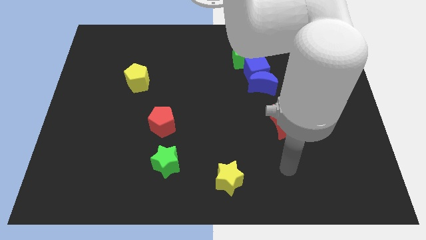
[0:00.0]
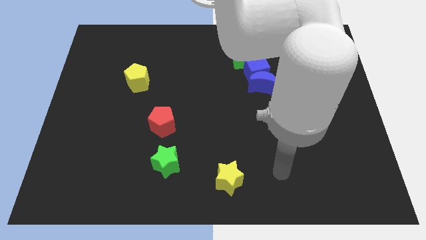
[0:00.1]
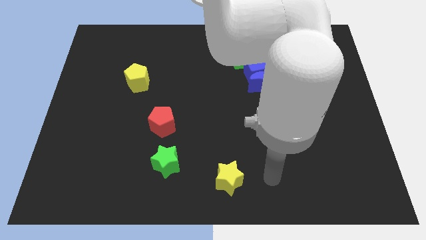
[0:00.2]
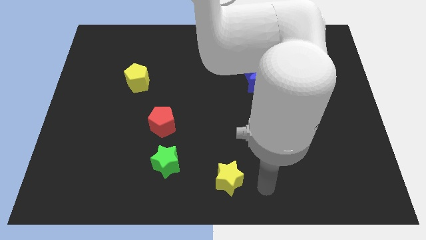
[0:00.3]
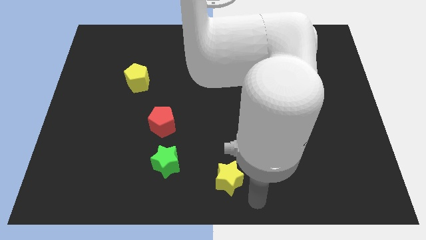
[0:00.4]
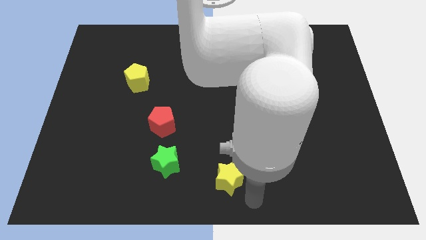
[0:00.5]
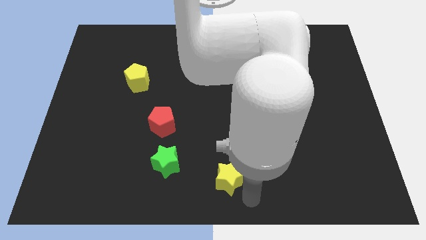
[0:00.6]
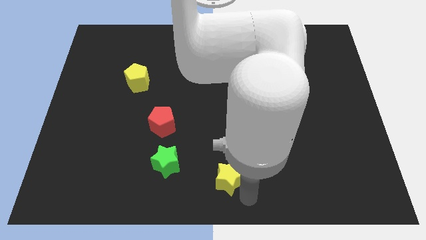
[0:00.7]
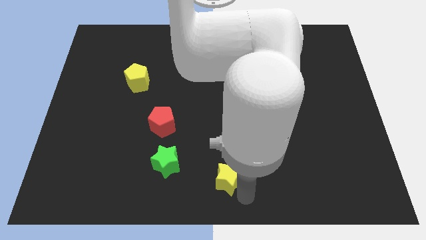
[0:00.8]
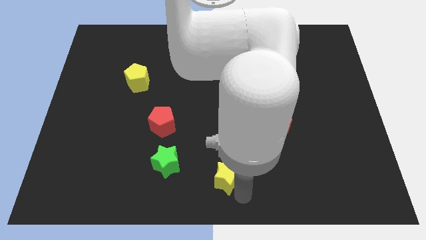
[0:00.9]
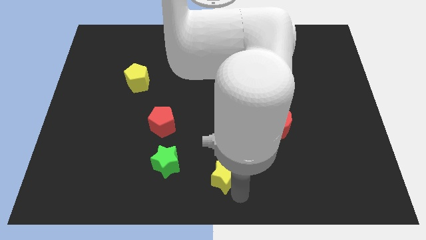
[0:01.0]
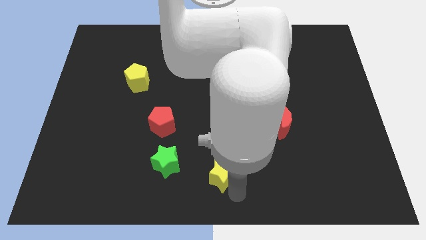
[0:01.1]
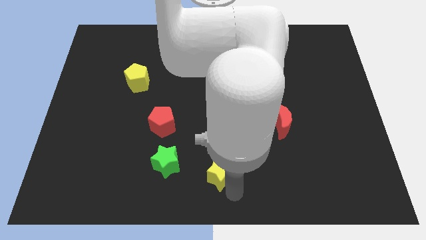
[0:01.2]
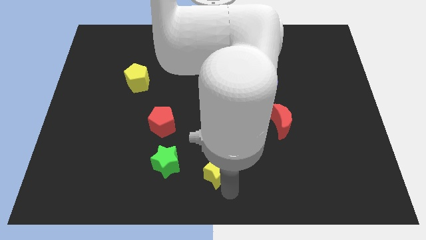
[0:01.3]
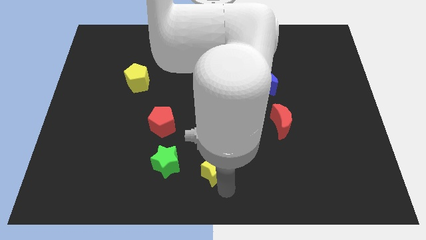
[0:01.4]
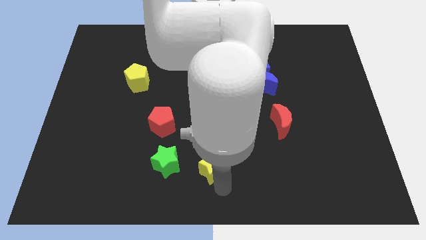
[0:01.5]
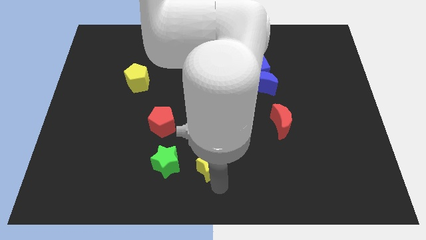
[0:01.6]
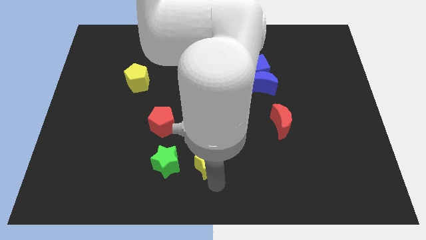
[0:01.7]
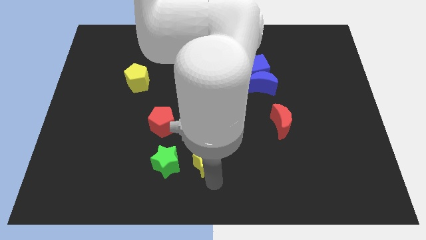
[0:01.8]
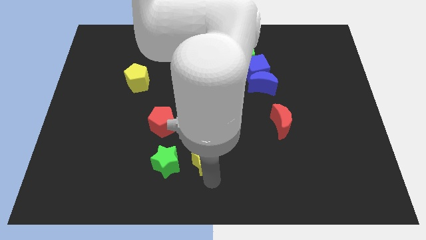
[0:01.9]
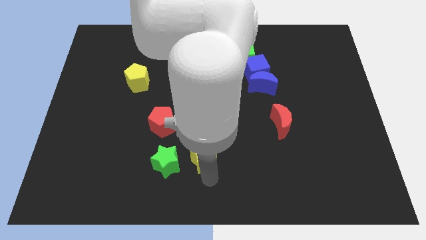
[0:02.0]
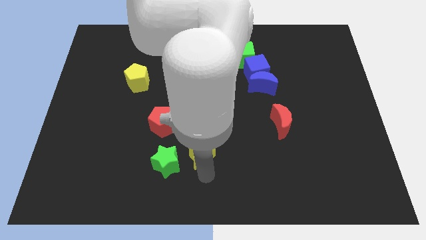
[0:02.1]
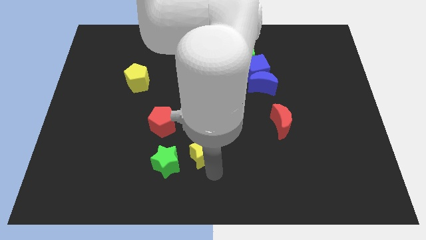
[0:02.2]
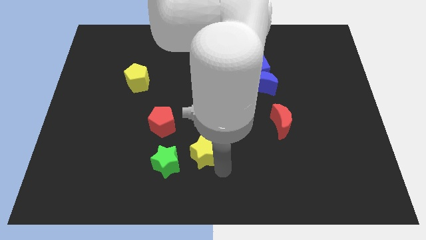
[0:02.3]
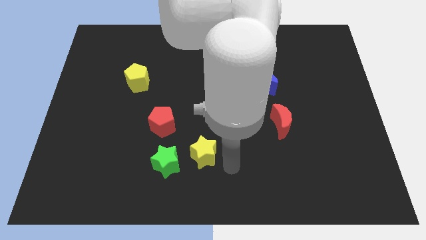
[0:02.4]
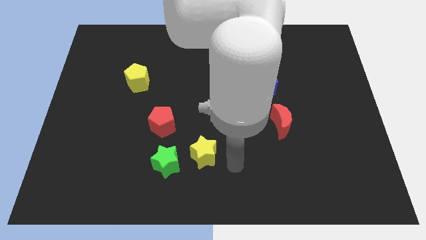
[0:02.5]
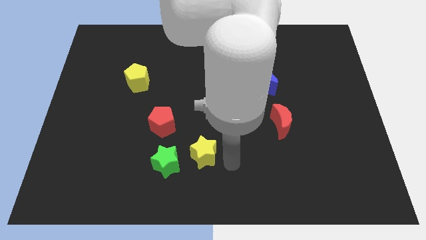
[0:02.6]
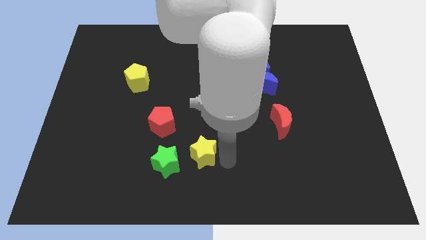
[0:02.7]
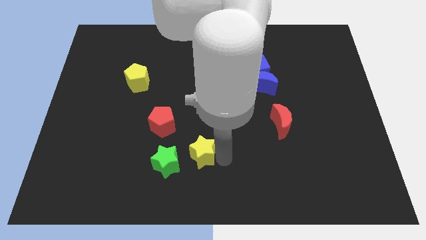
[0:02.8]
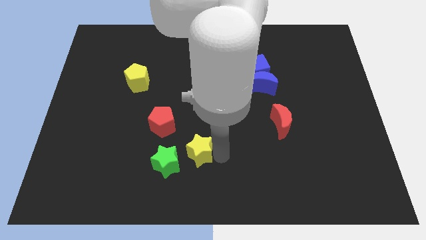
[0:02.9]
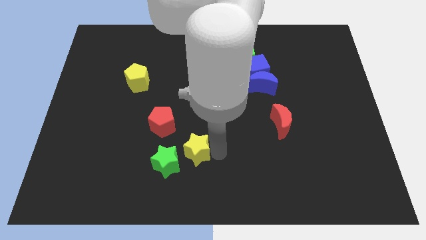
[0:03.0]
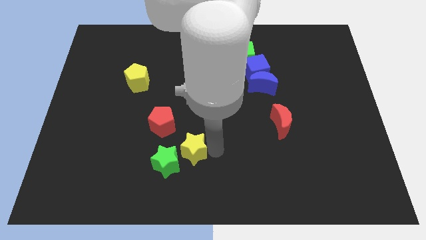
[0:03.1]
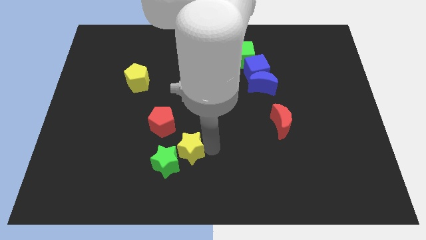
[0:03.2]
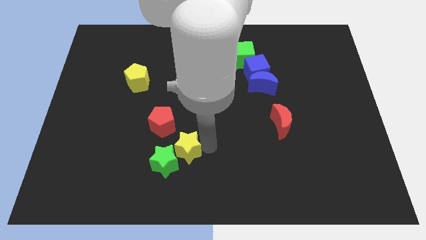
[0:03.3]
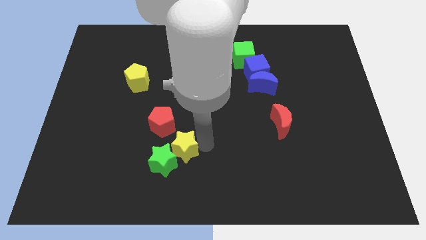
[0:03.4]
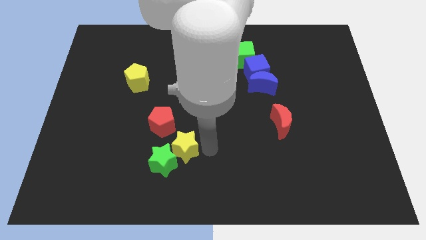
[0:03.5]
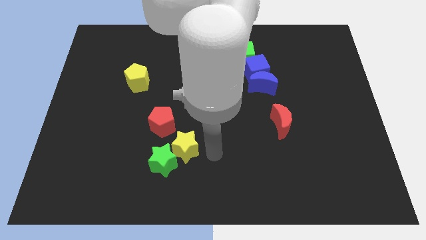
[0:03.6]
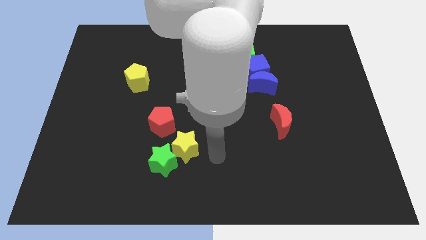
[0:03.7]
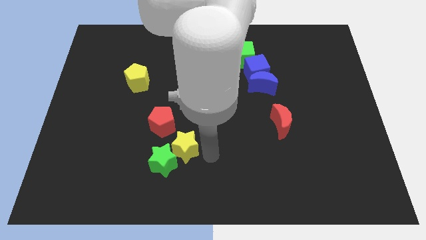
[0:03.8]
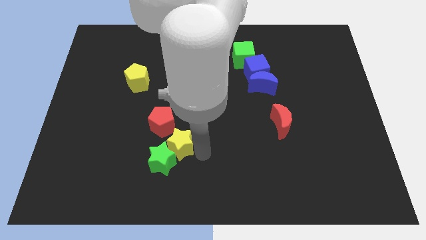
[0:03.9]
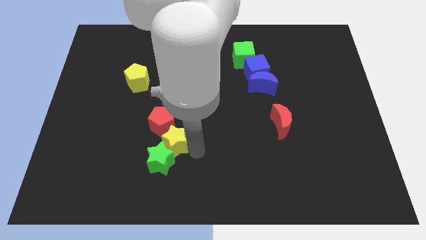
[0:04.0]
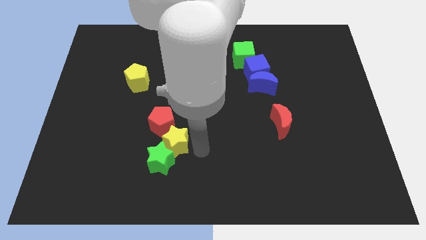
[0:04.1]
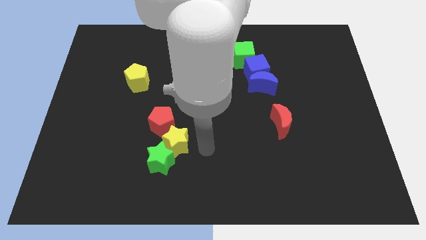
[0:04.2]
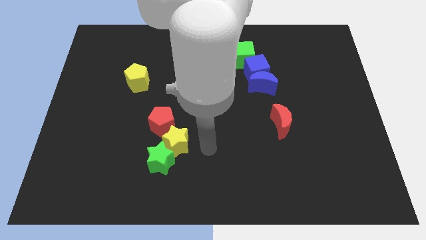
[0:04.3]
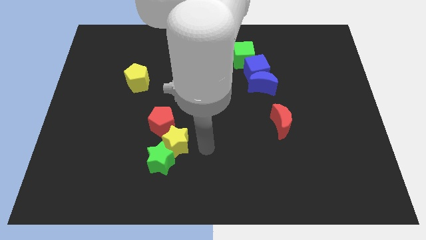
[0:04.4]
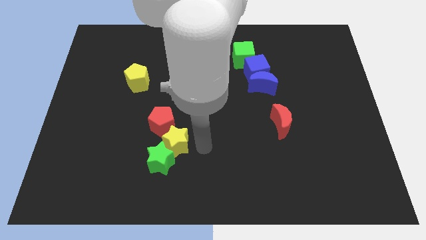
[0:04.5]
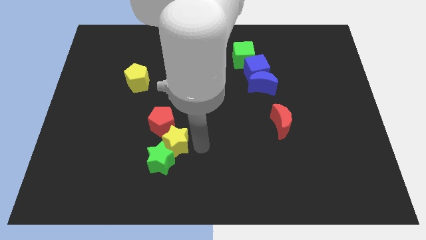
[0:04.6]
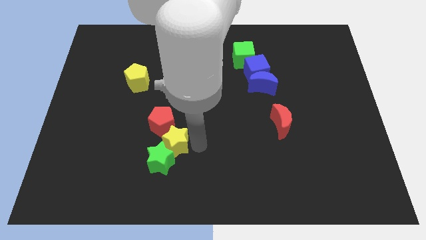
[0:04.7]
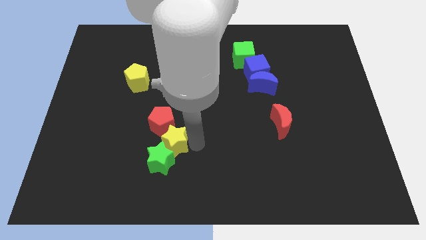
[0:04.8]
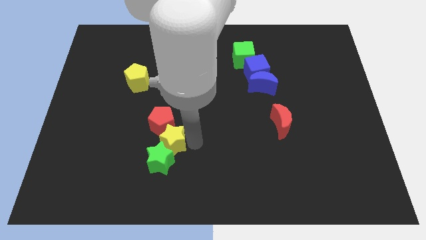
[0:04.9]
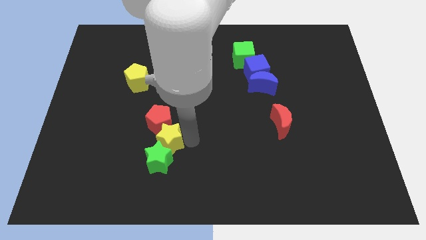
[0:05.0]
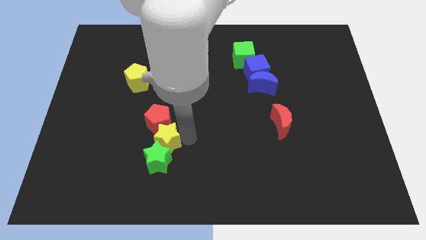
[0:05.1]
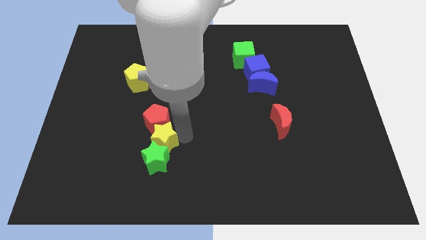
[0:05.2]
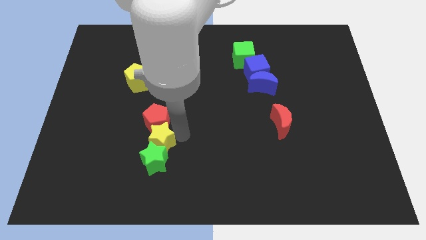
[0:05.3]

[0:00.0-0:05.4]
put the yellow star diagonally down and to the left of the red pentagon
